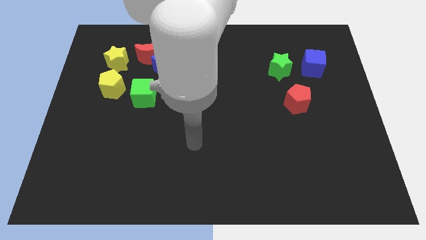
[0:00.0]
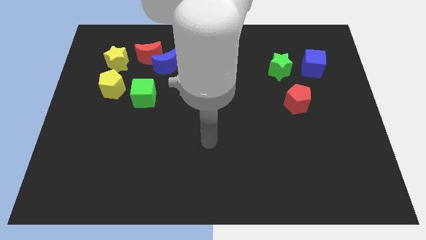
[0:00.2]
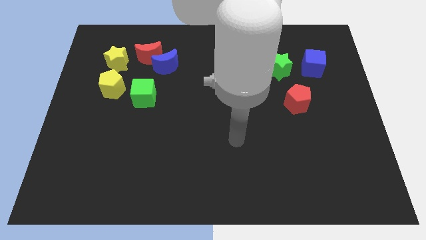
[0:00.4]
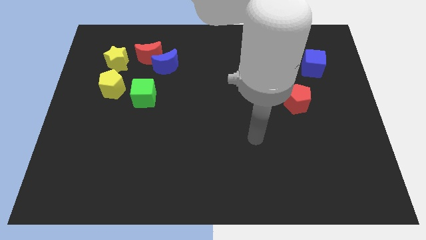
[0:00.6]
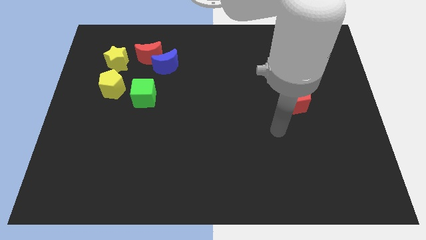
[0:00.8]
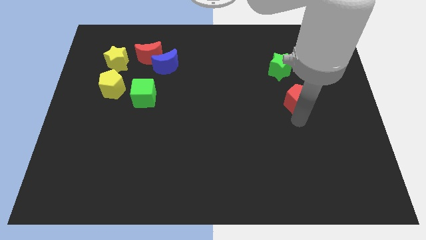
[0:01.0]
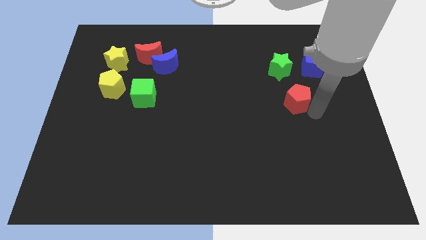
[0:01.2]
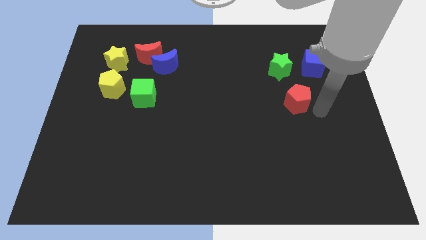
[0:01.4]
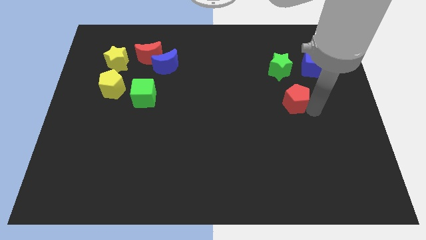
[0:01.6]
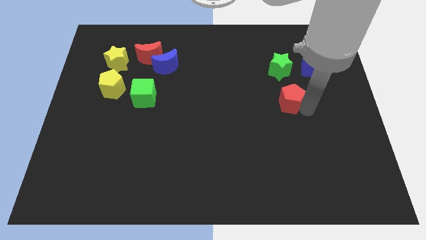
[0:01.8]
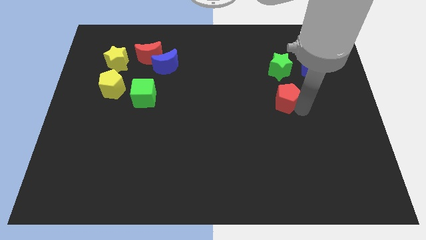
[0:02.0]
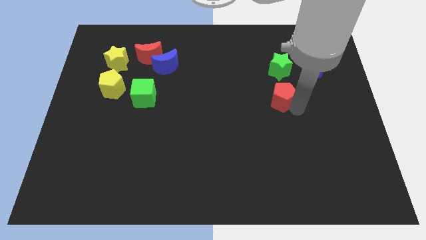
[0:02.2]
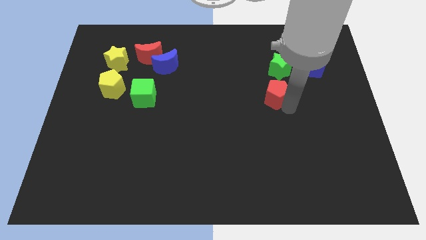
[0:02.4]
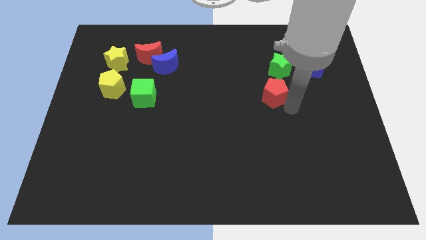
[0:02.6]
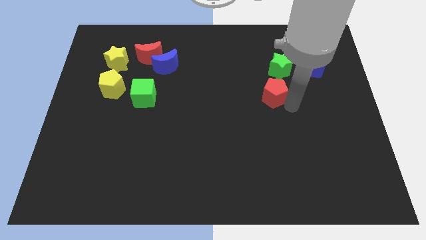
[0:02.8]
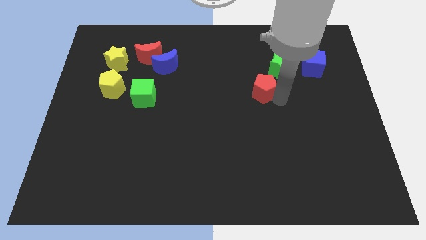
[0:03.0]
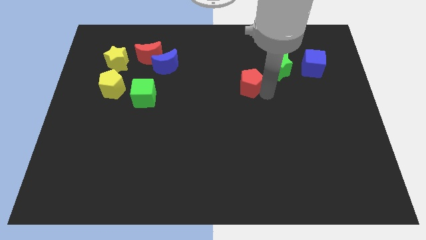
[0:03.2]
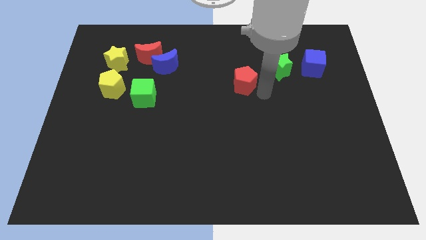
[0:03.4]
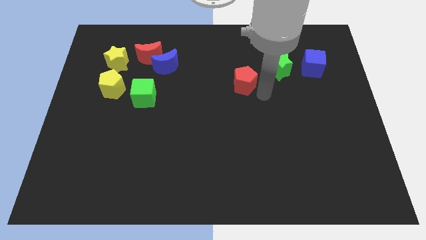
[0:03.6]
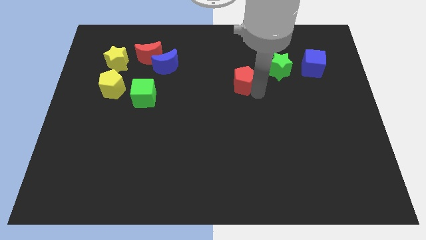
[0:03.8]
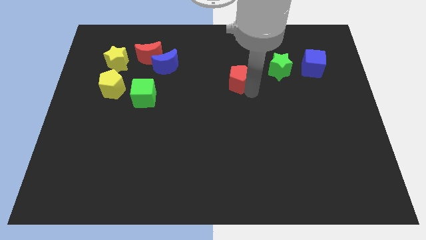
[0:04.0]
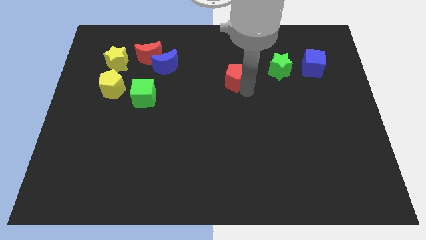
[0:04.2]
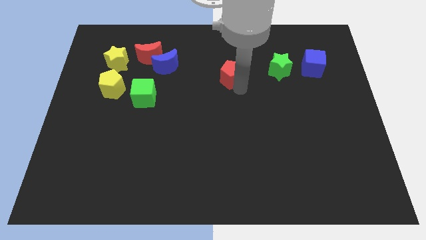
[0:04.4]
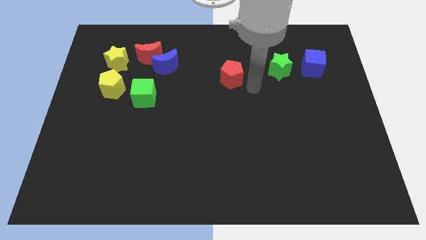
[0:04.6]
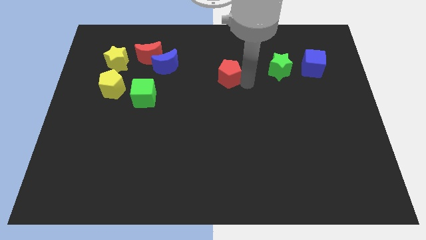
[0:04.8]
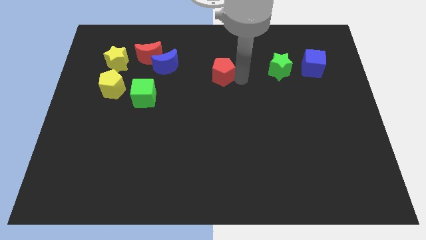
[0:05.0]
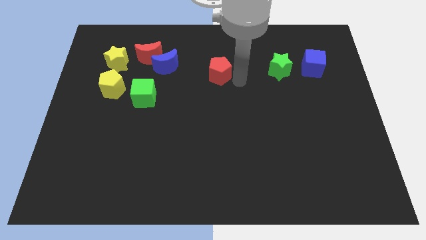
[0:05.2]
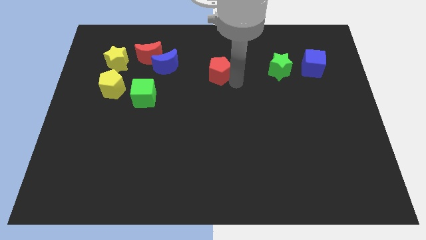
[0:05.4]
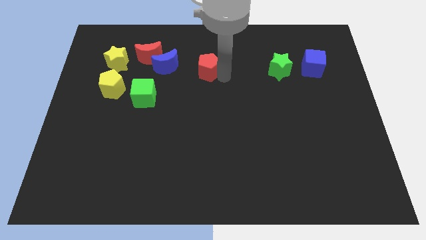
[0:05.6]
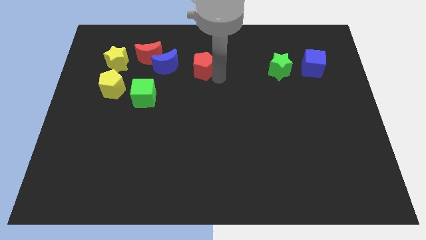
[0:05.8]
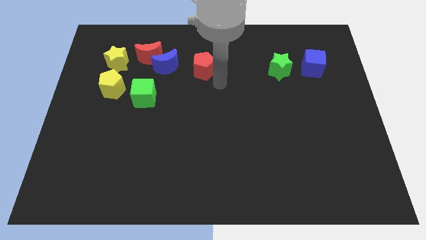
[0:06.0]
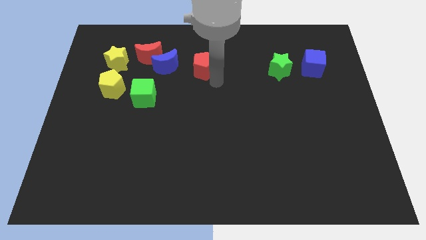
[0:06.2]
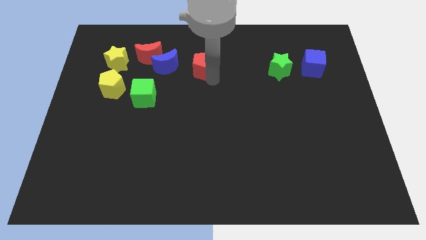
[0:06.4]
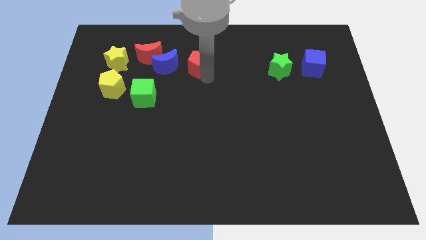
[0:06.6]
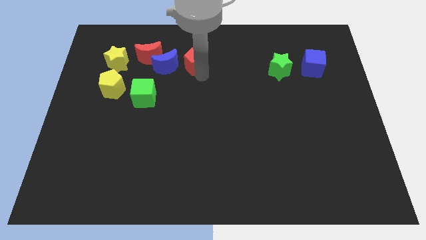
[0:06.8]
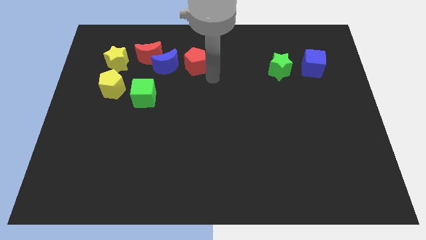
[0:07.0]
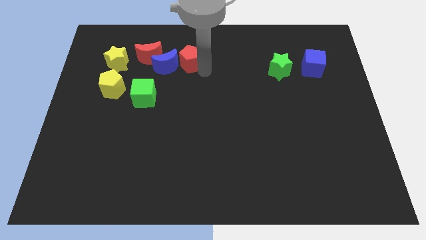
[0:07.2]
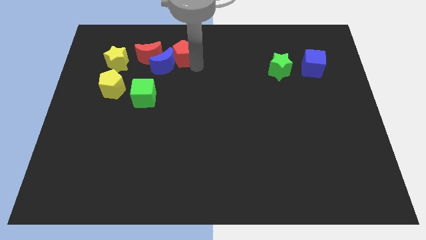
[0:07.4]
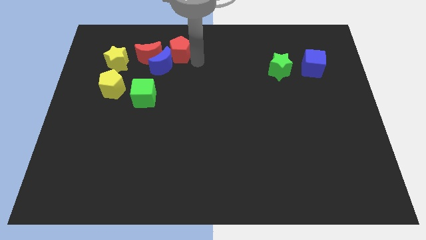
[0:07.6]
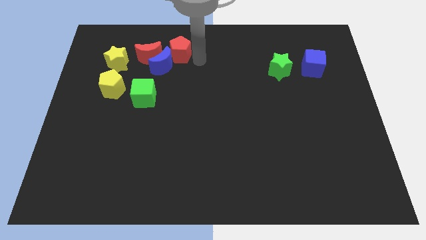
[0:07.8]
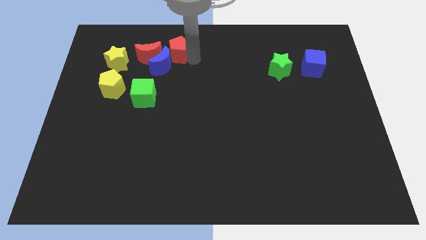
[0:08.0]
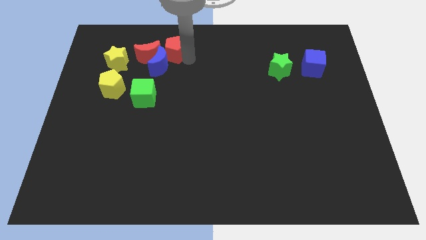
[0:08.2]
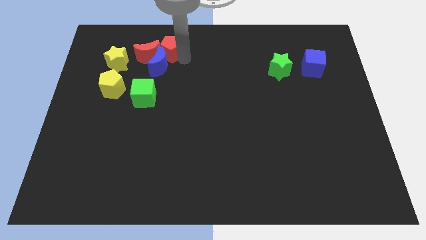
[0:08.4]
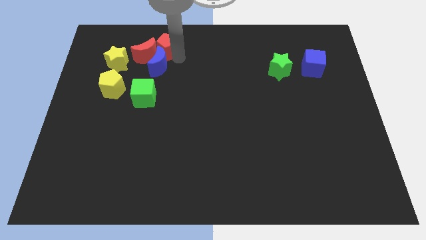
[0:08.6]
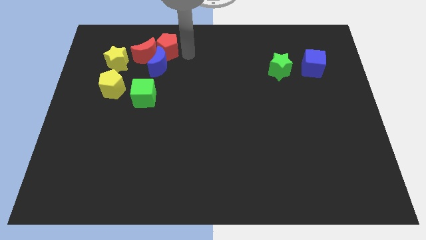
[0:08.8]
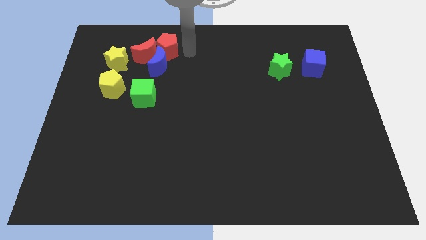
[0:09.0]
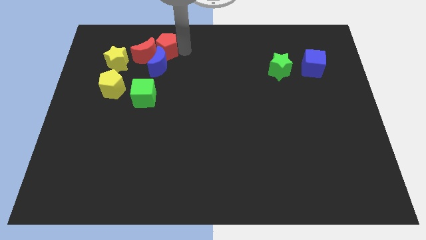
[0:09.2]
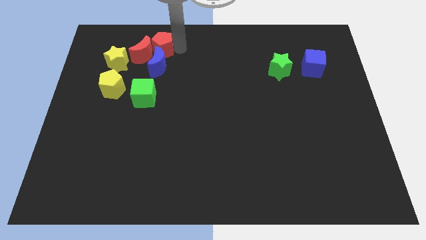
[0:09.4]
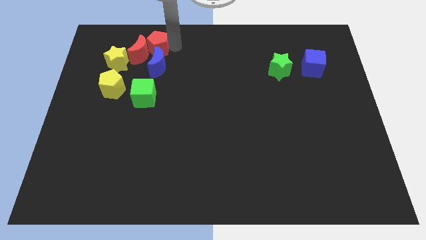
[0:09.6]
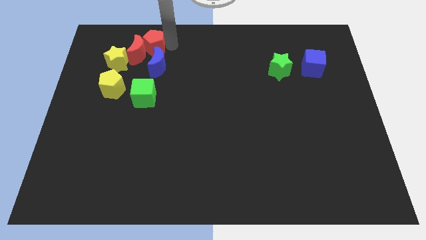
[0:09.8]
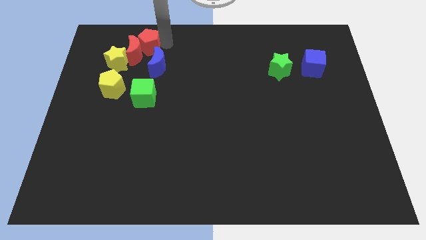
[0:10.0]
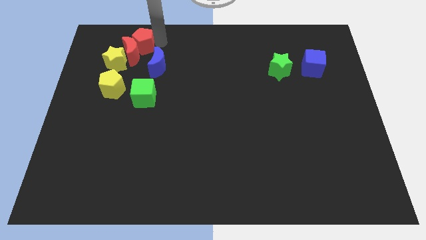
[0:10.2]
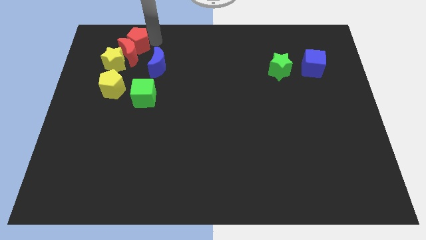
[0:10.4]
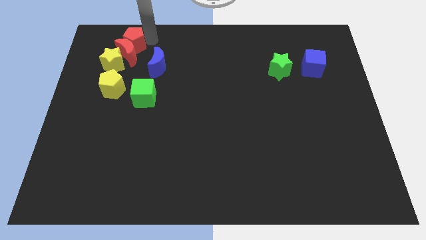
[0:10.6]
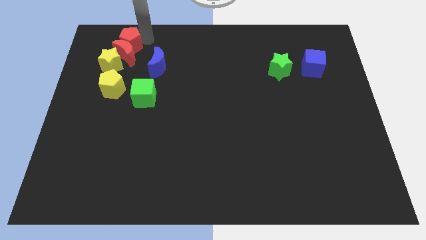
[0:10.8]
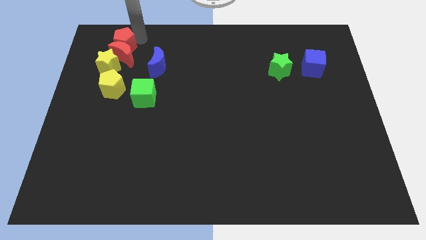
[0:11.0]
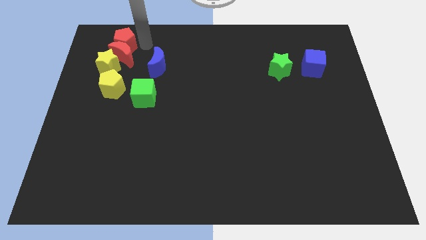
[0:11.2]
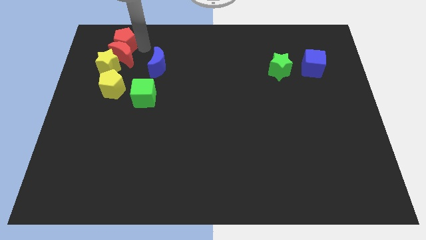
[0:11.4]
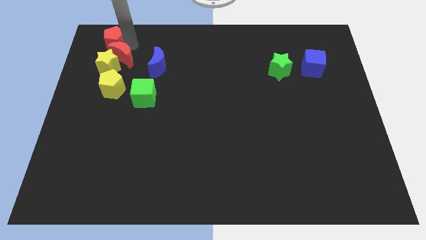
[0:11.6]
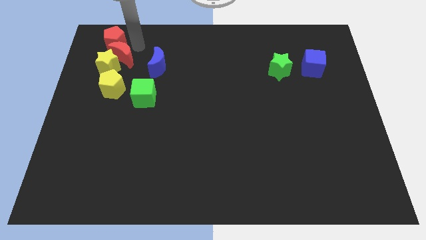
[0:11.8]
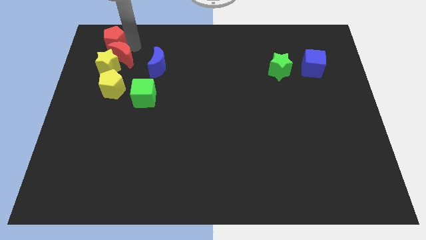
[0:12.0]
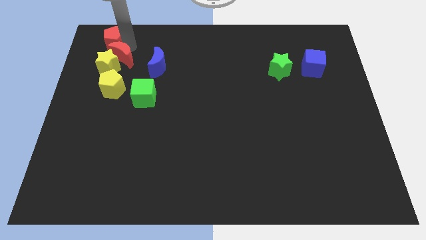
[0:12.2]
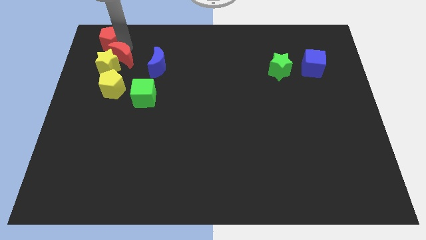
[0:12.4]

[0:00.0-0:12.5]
push the red pentagon to the upper left corner
